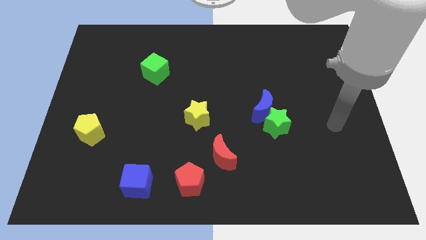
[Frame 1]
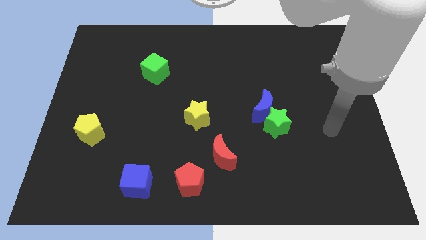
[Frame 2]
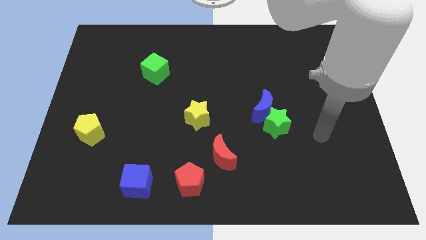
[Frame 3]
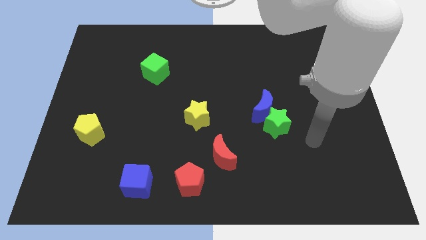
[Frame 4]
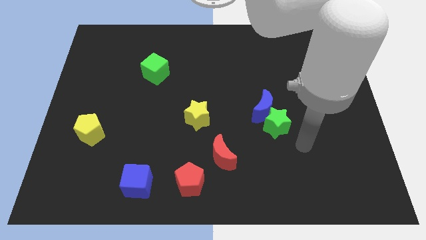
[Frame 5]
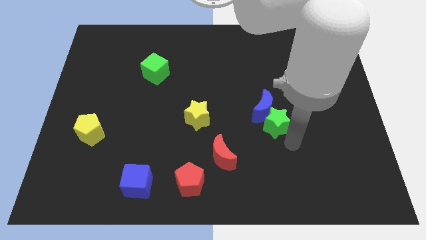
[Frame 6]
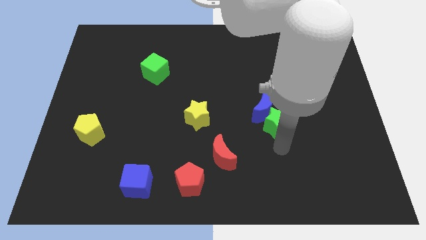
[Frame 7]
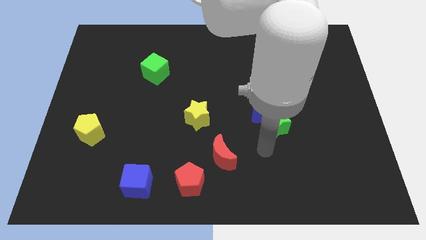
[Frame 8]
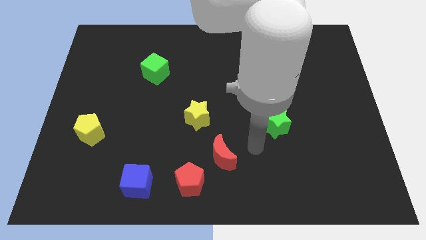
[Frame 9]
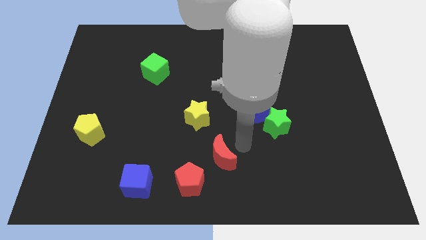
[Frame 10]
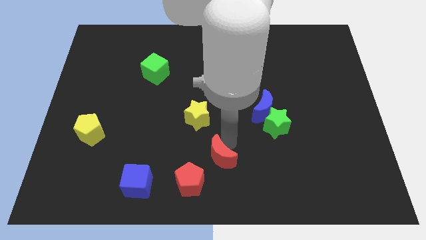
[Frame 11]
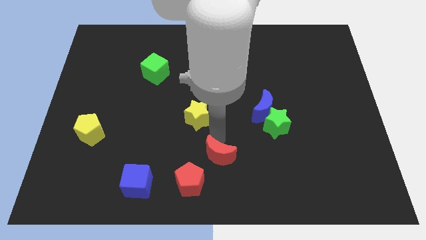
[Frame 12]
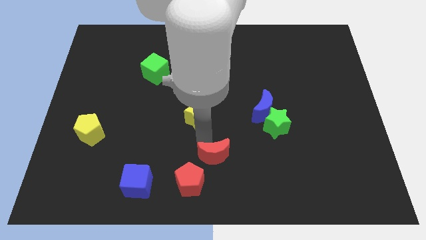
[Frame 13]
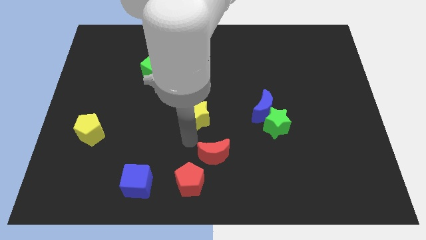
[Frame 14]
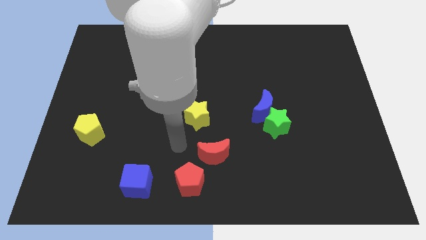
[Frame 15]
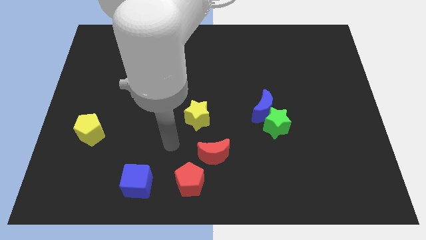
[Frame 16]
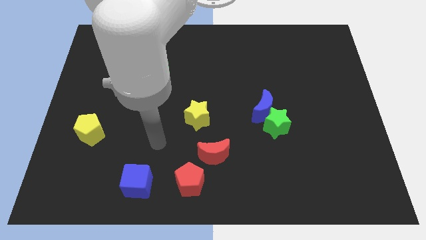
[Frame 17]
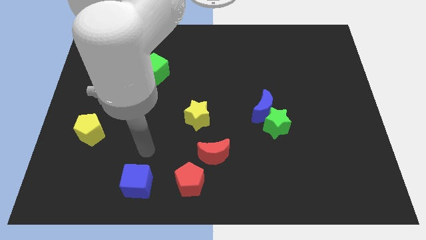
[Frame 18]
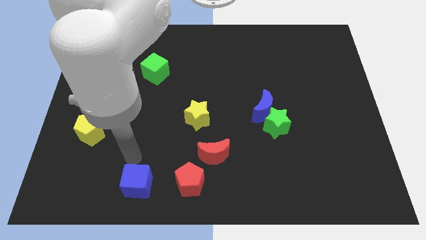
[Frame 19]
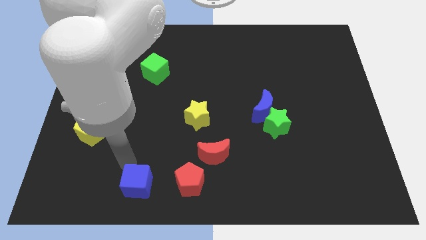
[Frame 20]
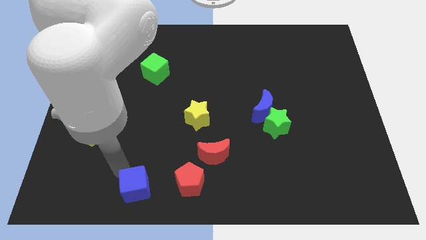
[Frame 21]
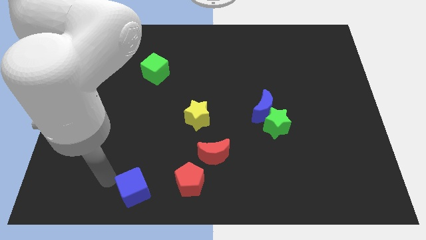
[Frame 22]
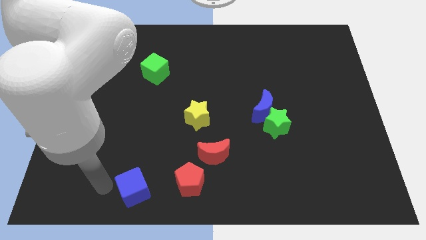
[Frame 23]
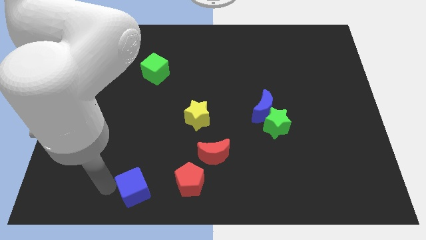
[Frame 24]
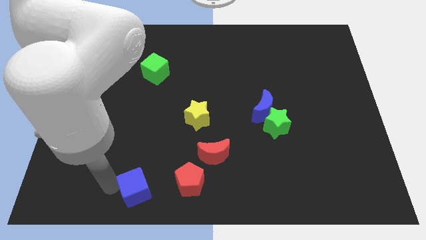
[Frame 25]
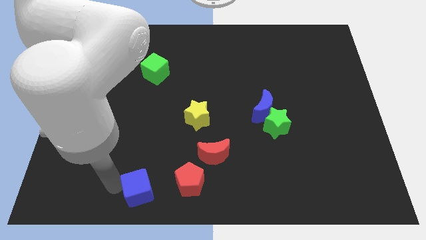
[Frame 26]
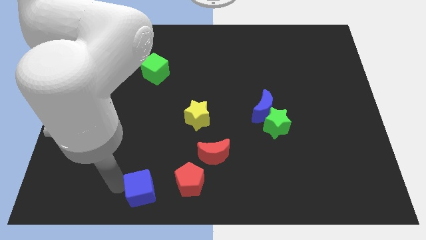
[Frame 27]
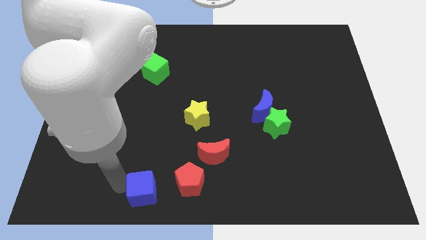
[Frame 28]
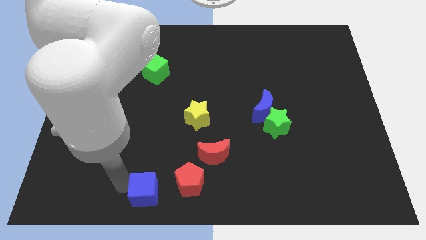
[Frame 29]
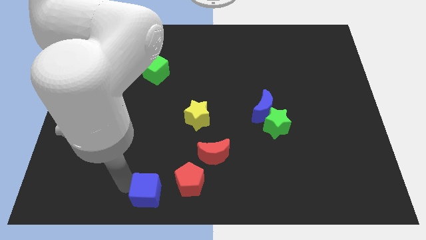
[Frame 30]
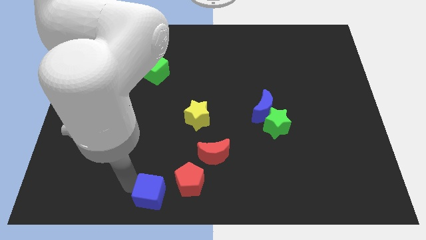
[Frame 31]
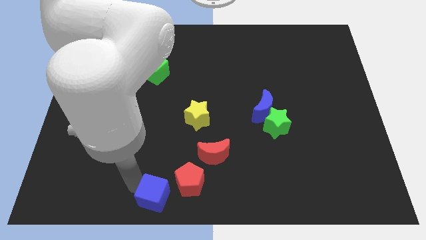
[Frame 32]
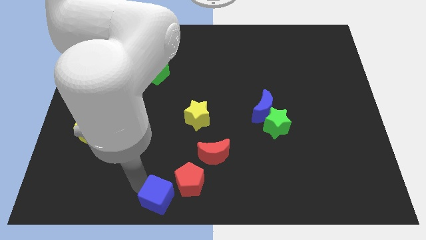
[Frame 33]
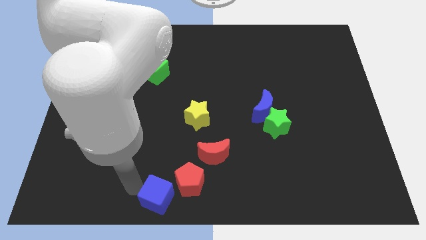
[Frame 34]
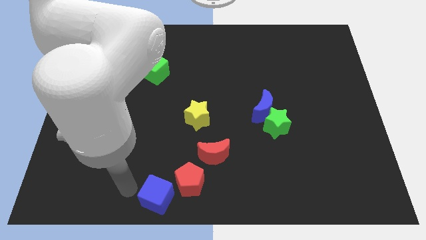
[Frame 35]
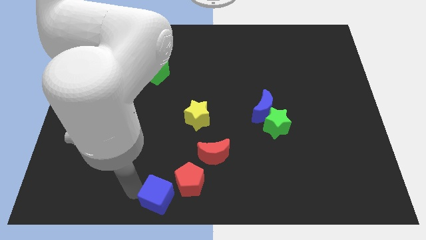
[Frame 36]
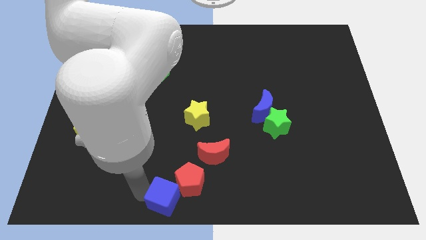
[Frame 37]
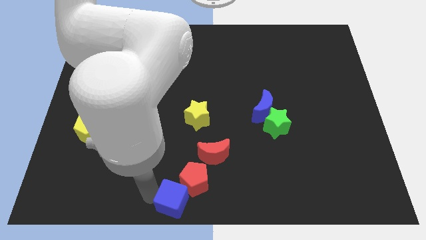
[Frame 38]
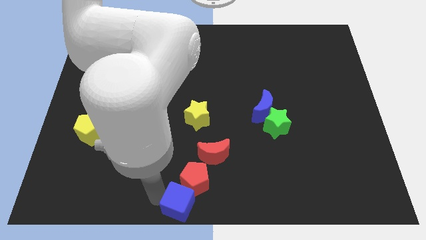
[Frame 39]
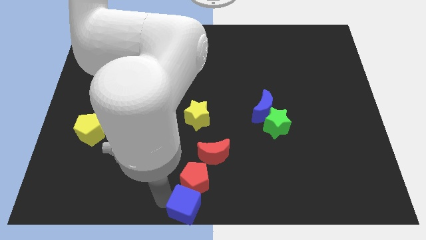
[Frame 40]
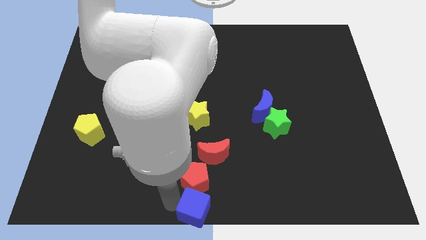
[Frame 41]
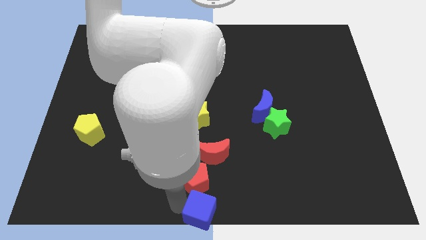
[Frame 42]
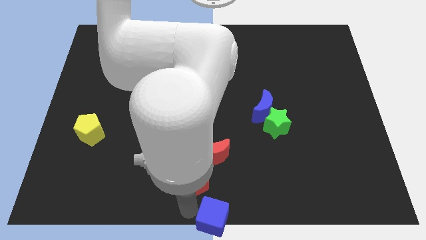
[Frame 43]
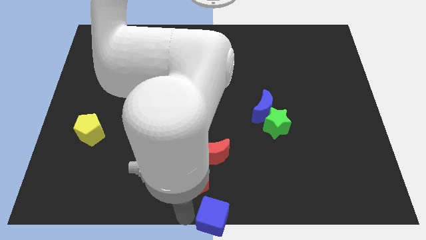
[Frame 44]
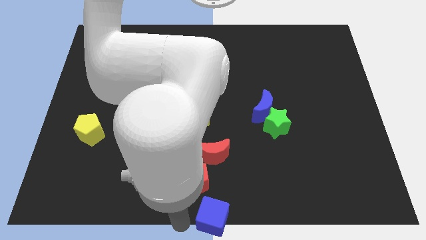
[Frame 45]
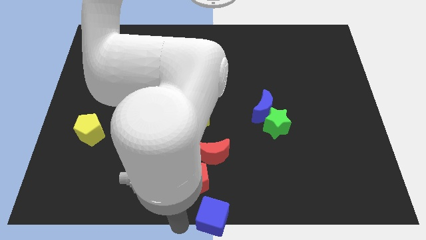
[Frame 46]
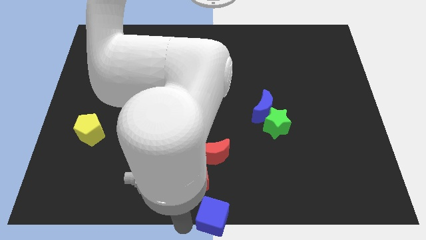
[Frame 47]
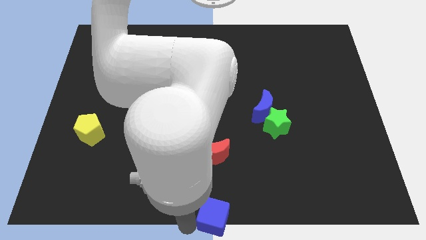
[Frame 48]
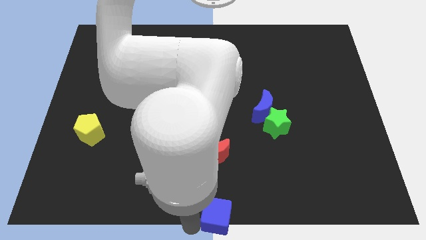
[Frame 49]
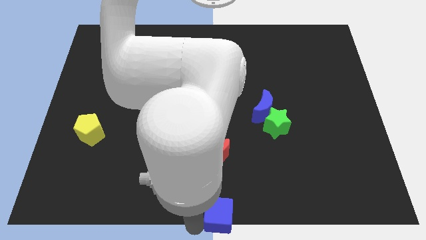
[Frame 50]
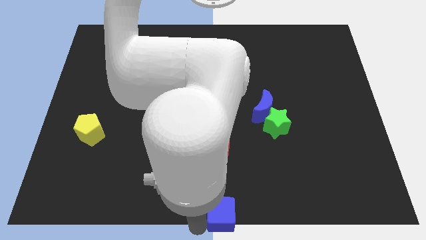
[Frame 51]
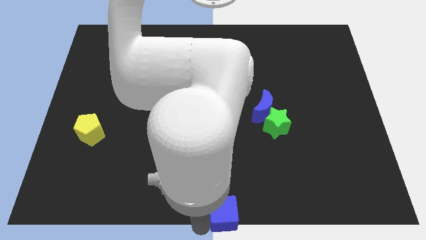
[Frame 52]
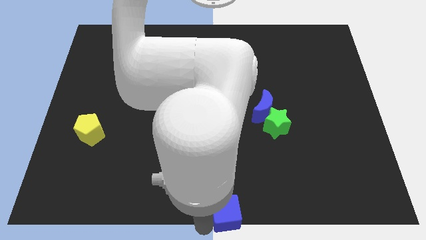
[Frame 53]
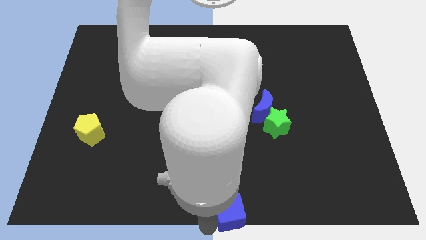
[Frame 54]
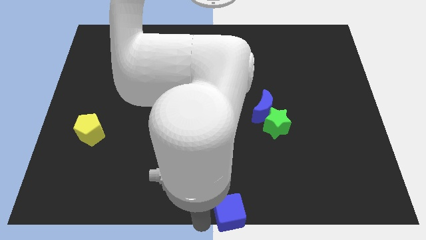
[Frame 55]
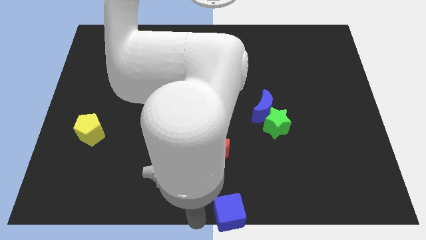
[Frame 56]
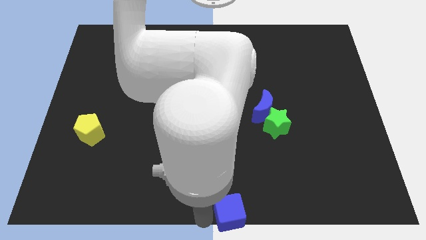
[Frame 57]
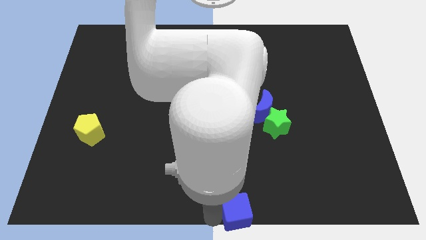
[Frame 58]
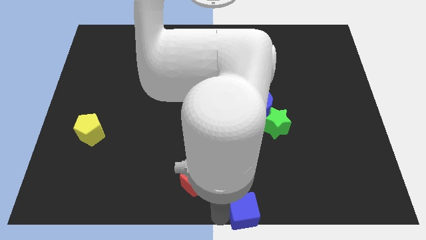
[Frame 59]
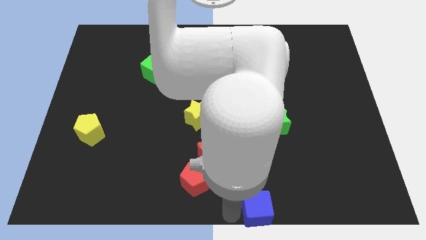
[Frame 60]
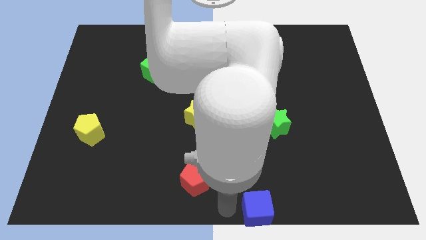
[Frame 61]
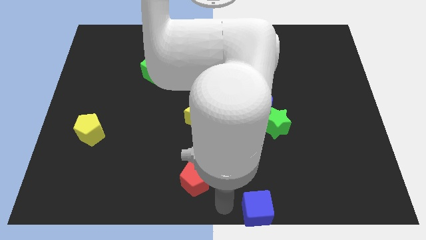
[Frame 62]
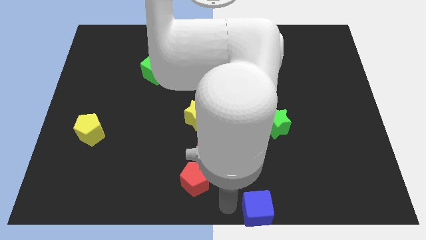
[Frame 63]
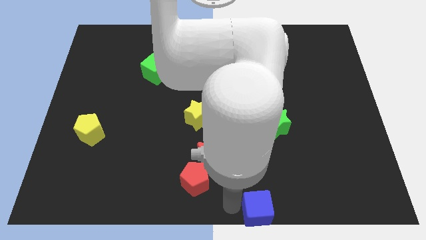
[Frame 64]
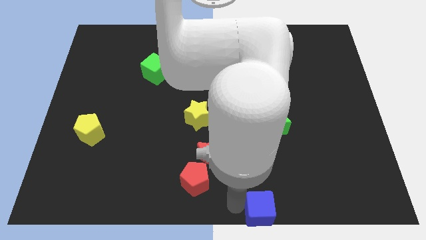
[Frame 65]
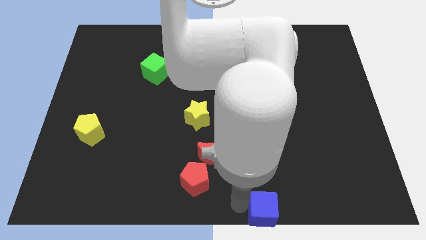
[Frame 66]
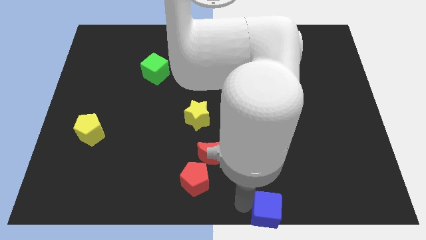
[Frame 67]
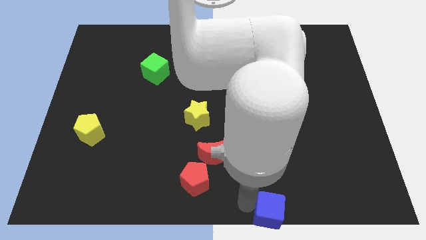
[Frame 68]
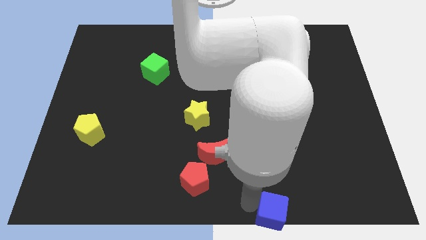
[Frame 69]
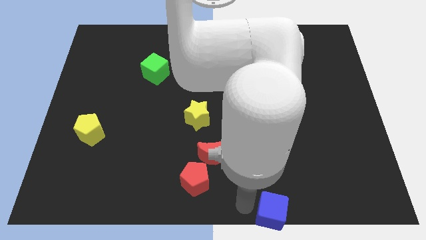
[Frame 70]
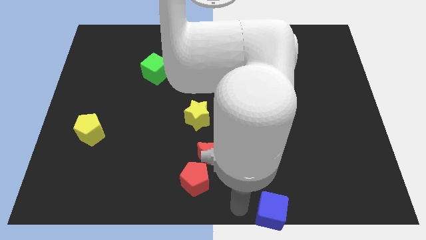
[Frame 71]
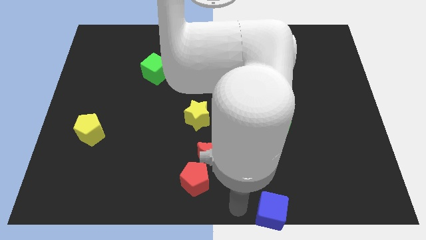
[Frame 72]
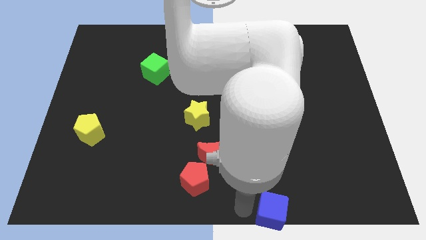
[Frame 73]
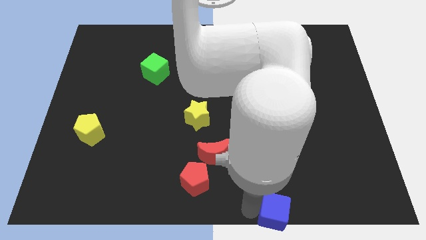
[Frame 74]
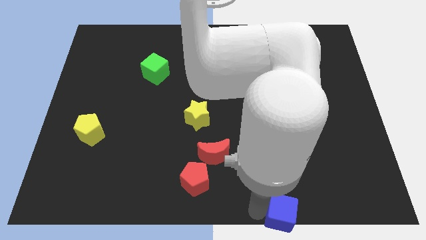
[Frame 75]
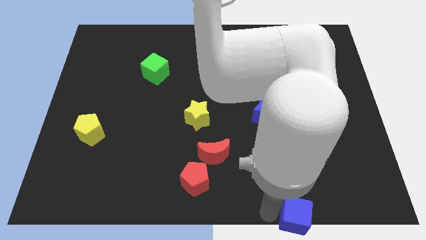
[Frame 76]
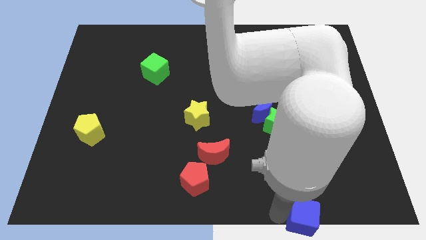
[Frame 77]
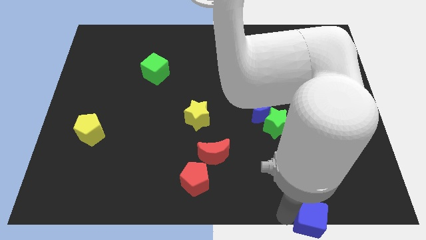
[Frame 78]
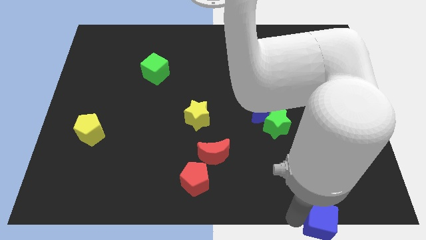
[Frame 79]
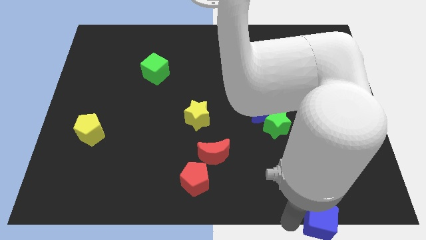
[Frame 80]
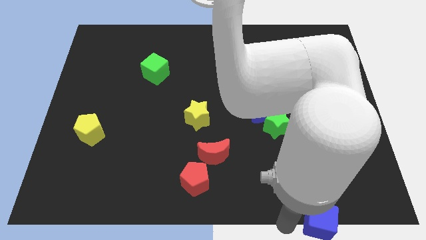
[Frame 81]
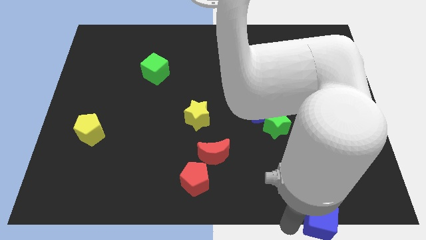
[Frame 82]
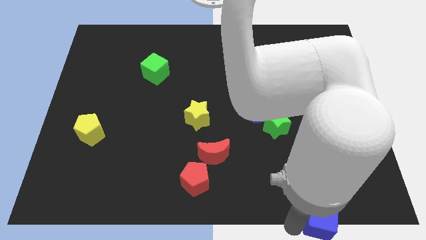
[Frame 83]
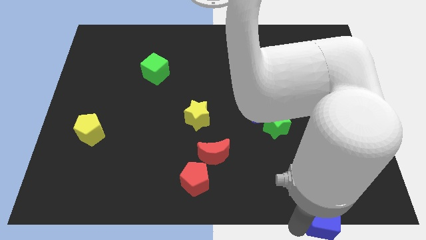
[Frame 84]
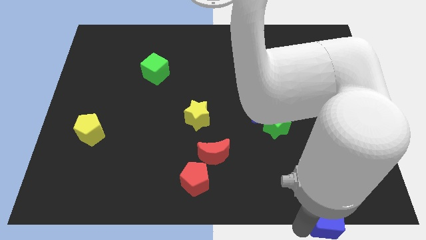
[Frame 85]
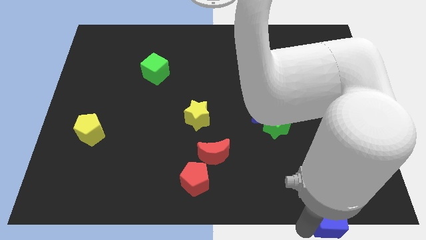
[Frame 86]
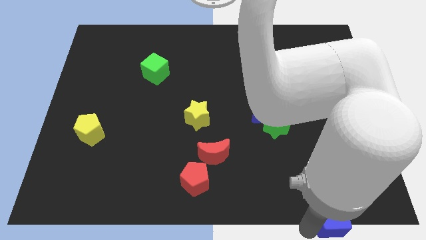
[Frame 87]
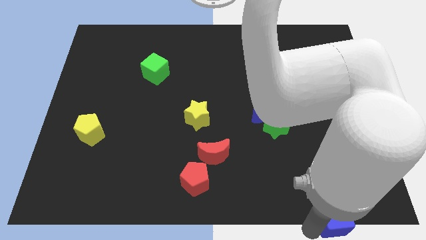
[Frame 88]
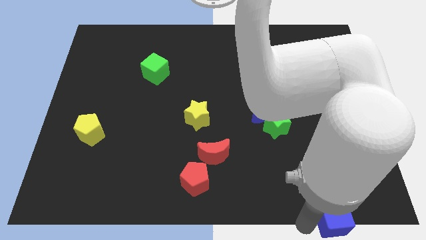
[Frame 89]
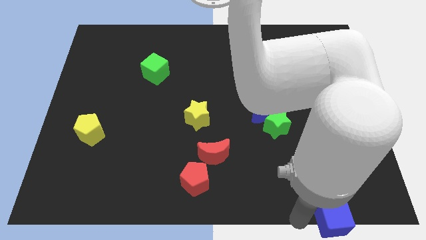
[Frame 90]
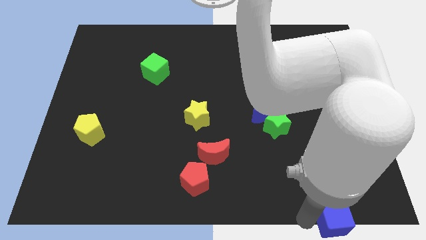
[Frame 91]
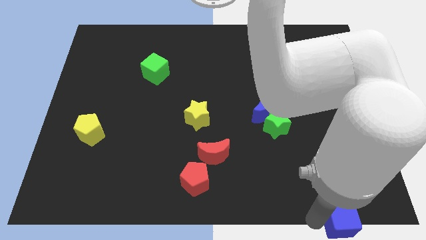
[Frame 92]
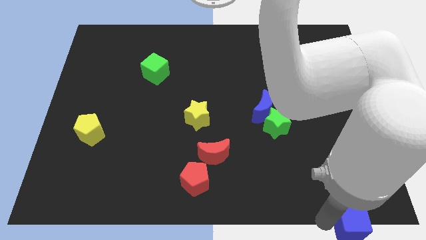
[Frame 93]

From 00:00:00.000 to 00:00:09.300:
slide the blue cube to the bottom right corner
